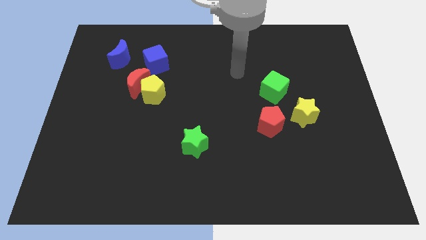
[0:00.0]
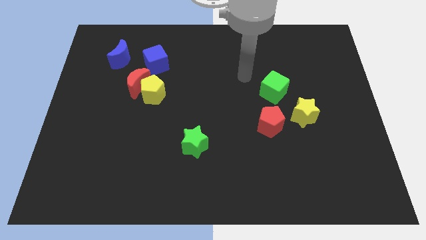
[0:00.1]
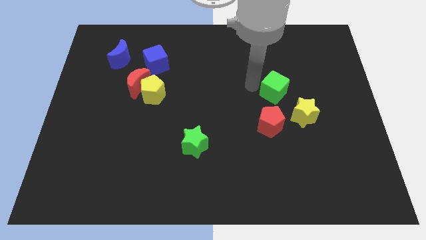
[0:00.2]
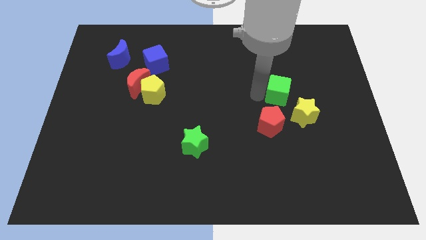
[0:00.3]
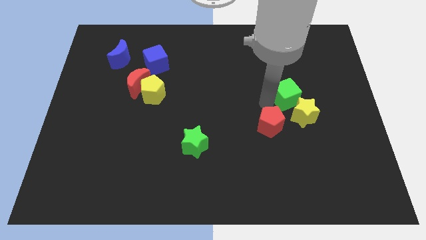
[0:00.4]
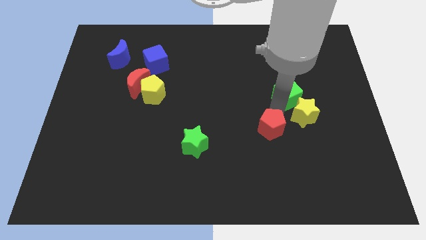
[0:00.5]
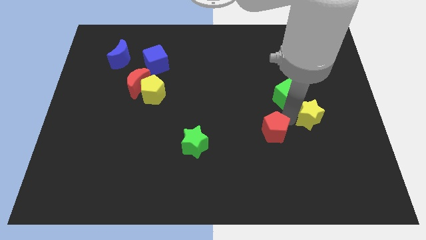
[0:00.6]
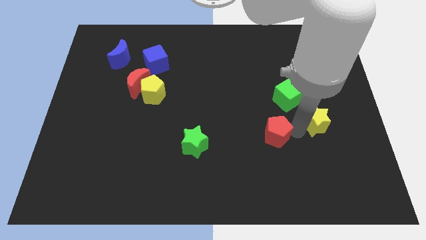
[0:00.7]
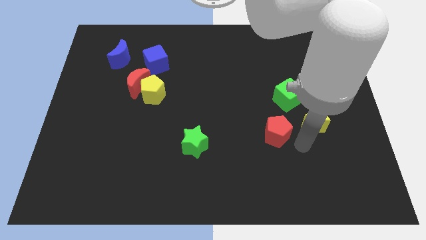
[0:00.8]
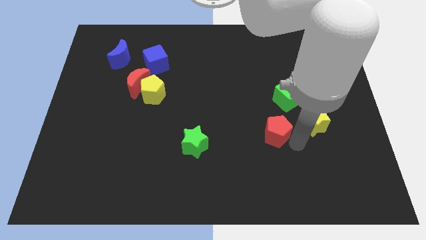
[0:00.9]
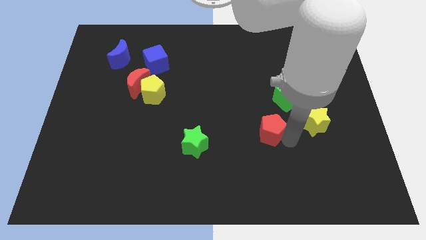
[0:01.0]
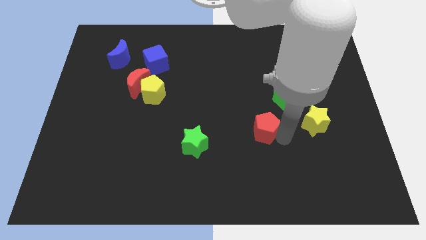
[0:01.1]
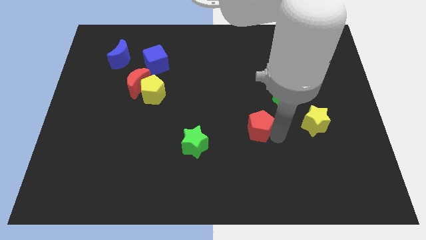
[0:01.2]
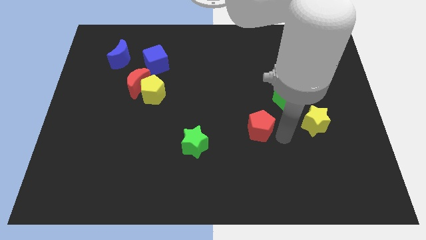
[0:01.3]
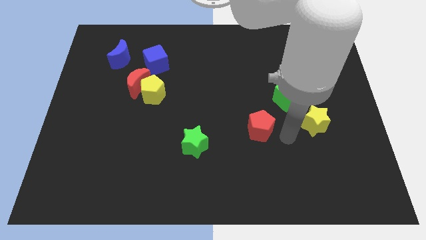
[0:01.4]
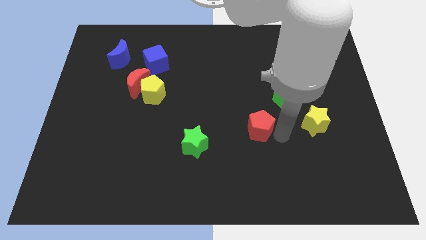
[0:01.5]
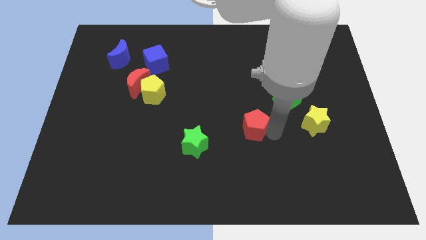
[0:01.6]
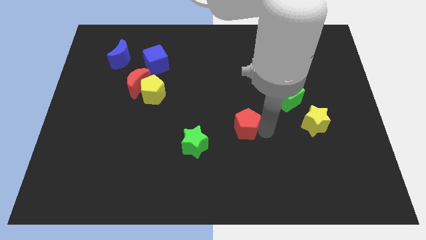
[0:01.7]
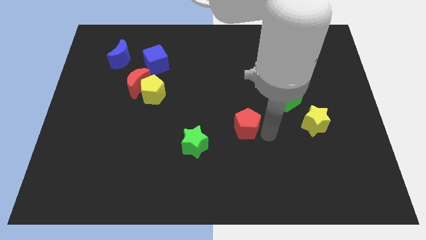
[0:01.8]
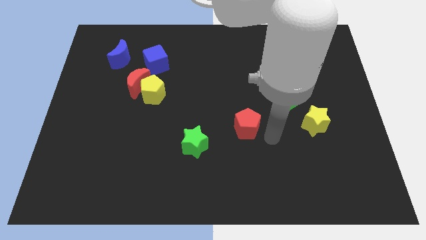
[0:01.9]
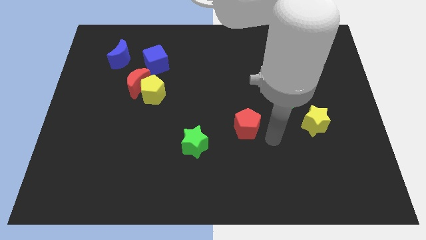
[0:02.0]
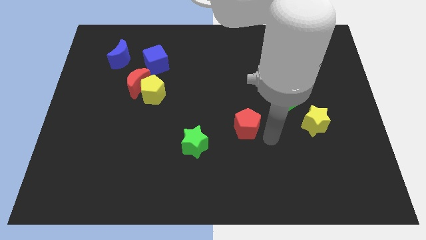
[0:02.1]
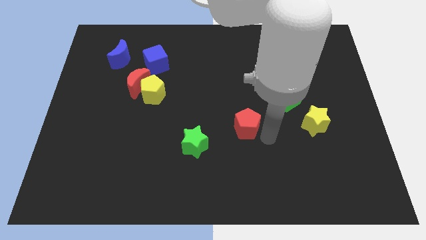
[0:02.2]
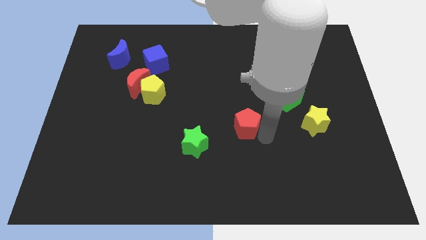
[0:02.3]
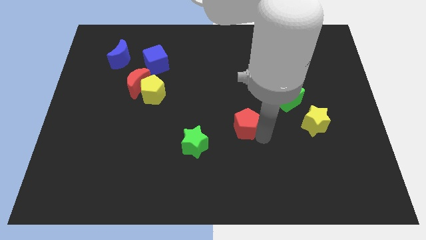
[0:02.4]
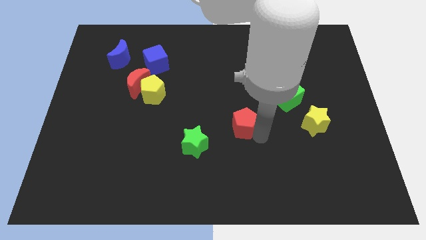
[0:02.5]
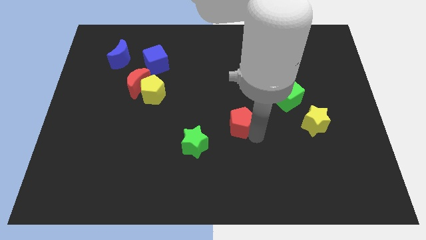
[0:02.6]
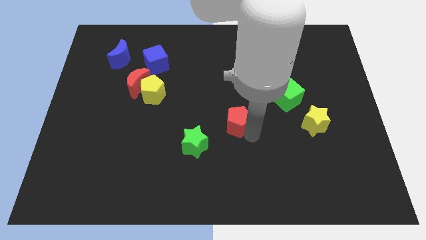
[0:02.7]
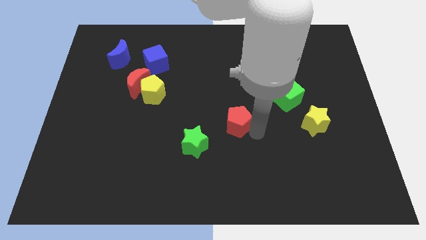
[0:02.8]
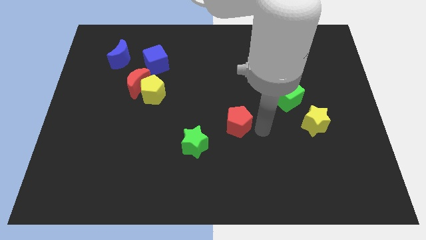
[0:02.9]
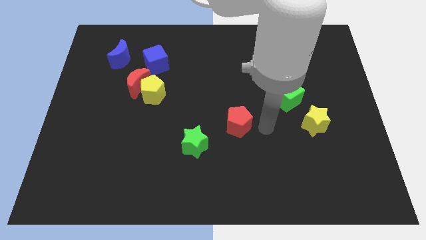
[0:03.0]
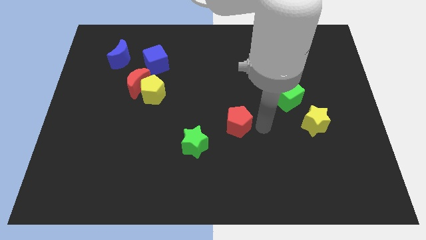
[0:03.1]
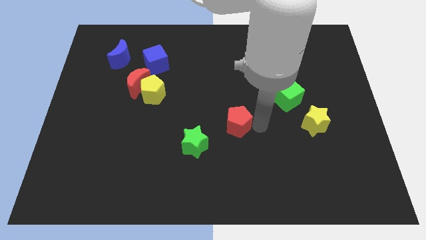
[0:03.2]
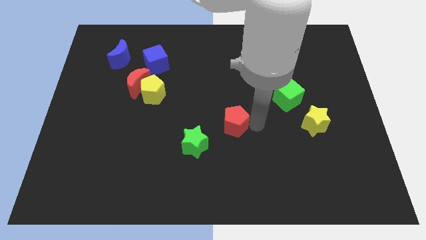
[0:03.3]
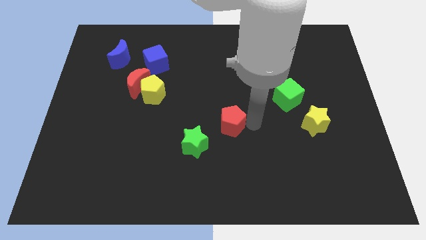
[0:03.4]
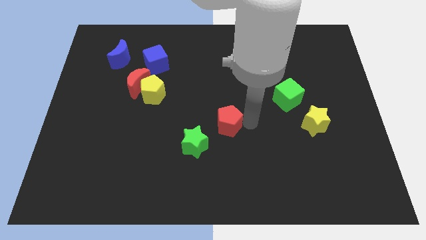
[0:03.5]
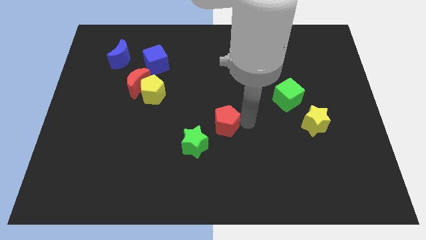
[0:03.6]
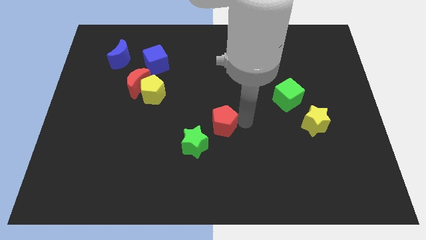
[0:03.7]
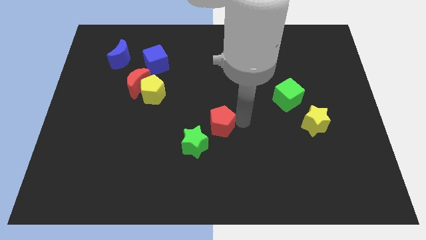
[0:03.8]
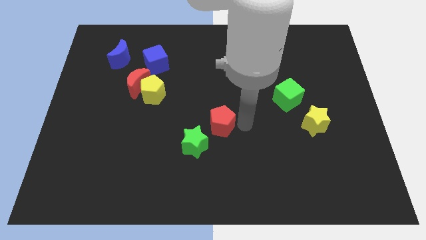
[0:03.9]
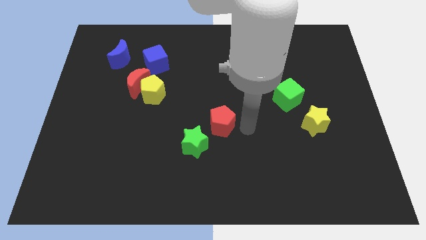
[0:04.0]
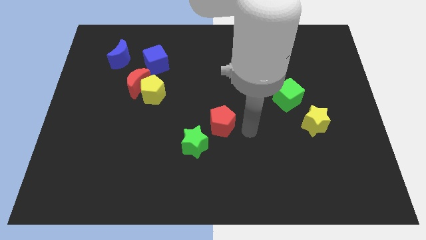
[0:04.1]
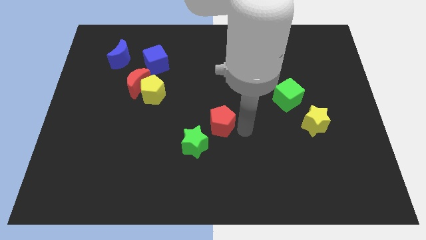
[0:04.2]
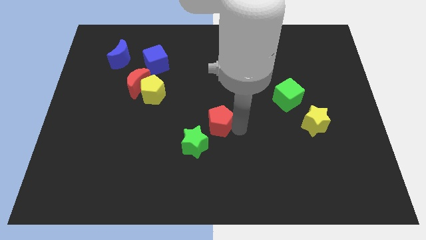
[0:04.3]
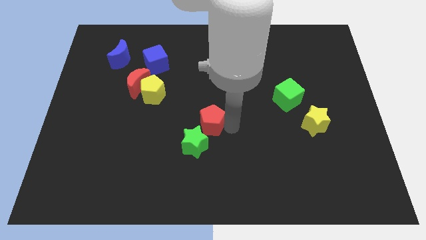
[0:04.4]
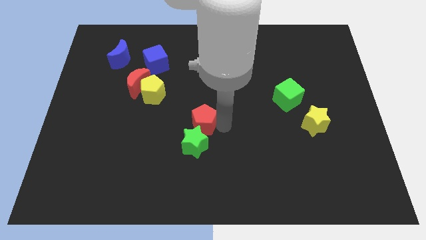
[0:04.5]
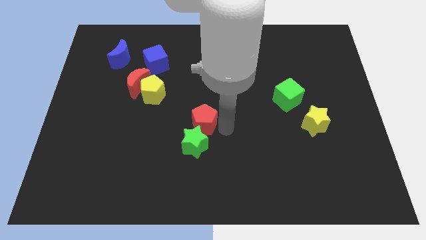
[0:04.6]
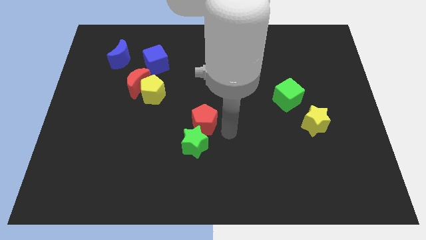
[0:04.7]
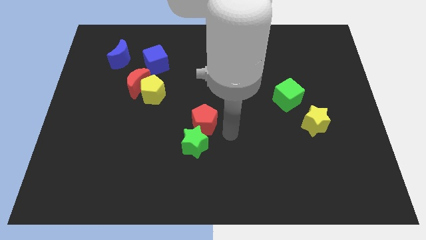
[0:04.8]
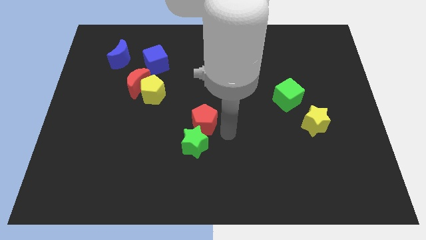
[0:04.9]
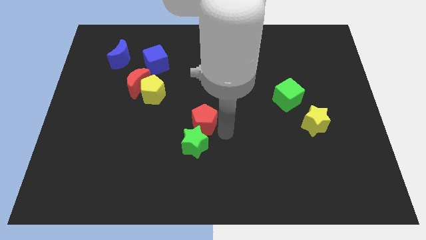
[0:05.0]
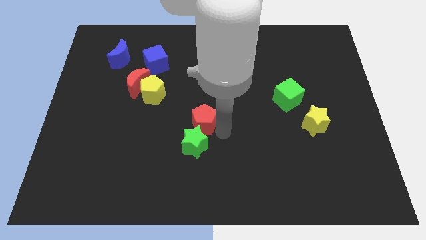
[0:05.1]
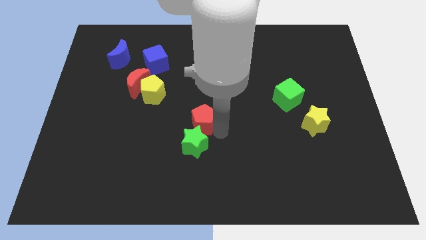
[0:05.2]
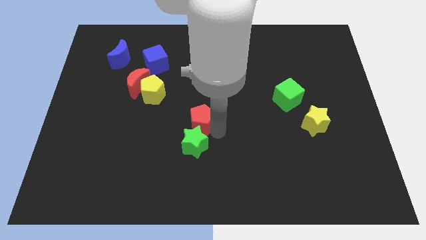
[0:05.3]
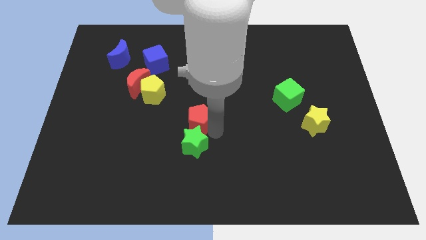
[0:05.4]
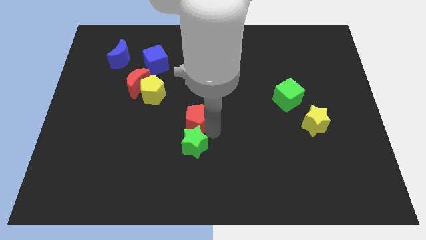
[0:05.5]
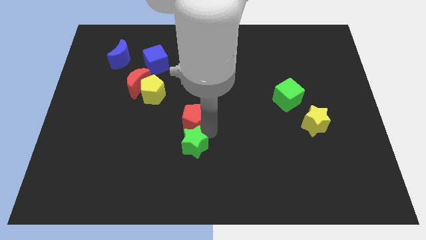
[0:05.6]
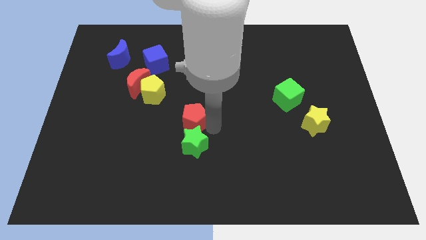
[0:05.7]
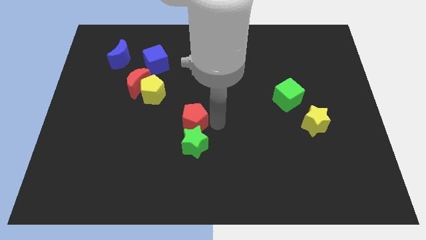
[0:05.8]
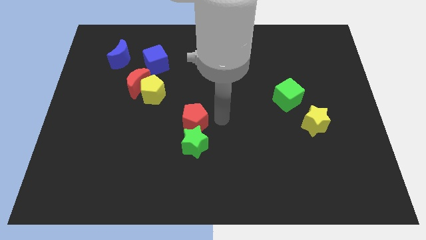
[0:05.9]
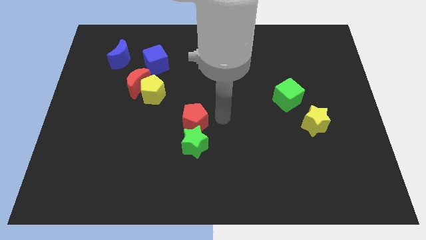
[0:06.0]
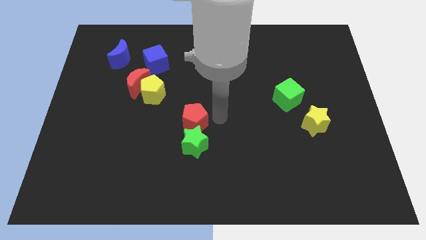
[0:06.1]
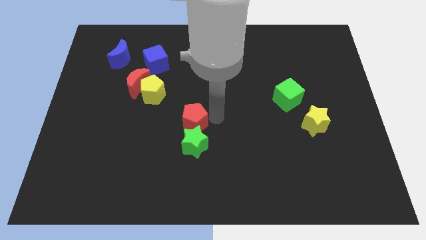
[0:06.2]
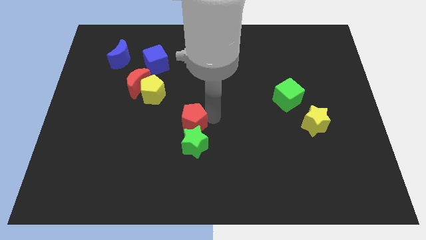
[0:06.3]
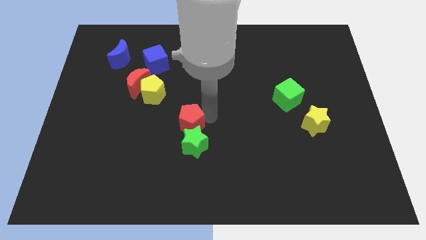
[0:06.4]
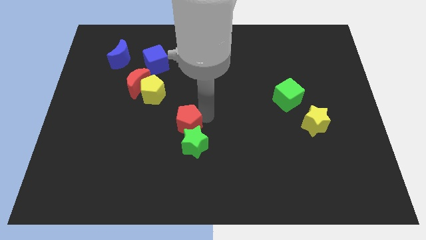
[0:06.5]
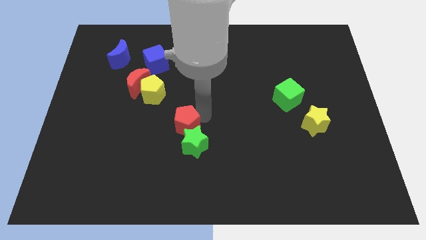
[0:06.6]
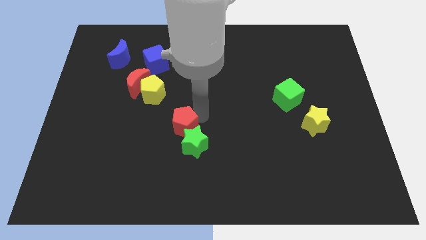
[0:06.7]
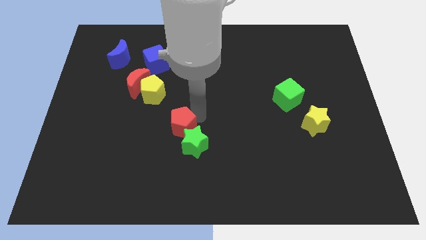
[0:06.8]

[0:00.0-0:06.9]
slide the red pentagon to the left

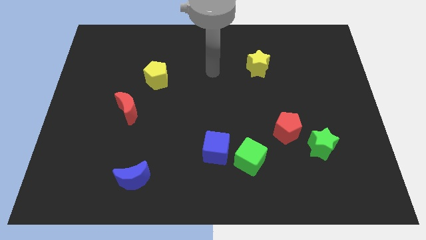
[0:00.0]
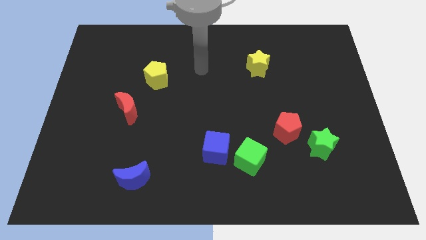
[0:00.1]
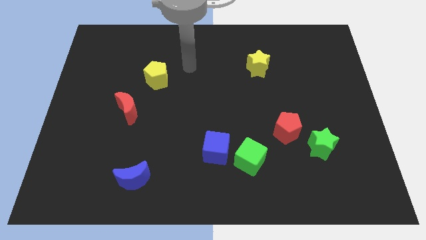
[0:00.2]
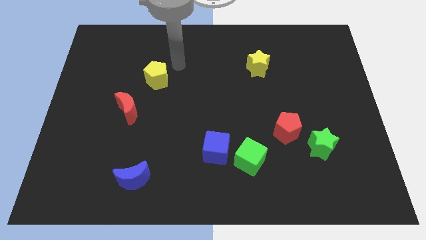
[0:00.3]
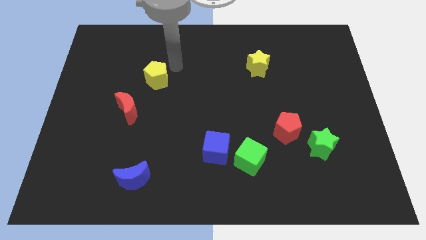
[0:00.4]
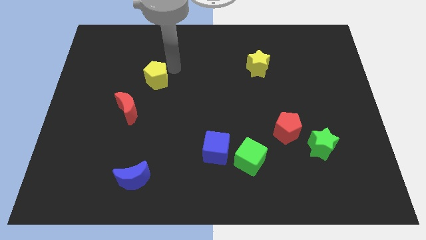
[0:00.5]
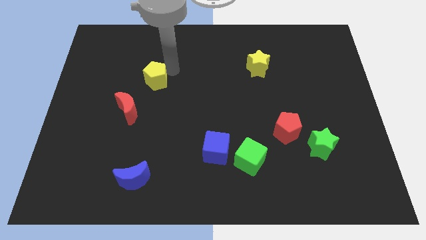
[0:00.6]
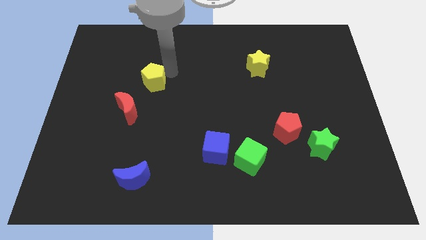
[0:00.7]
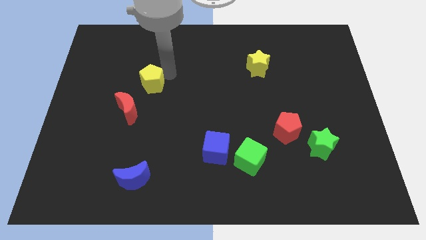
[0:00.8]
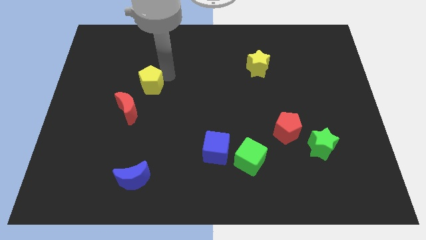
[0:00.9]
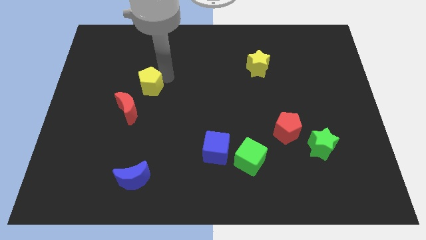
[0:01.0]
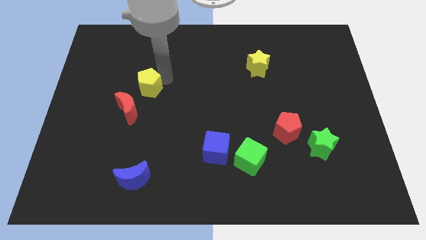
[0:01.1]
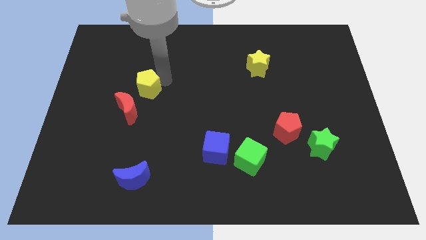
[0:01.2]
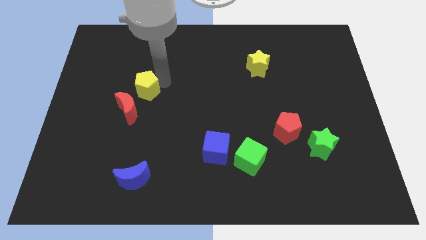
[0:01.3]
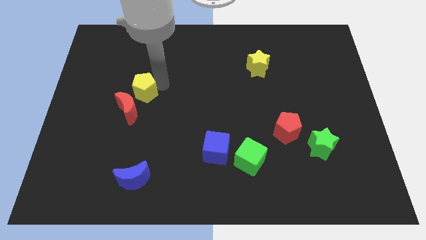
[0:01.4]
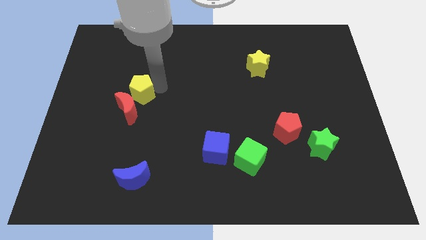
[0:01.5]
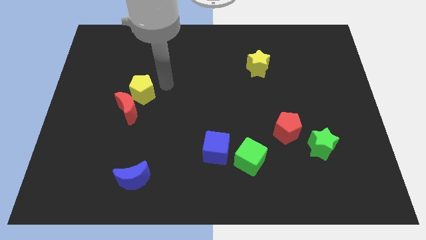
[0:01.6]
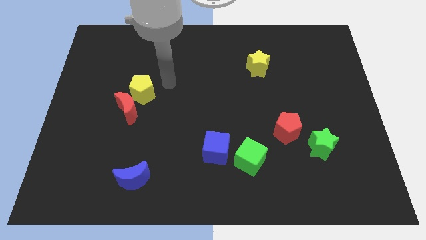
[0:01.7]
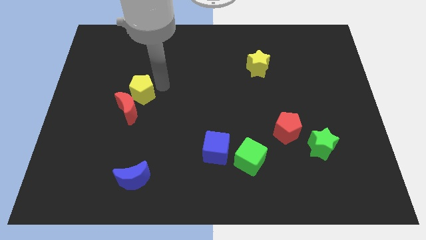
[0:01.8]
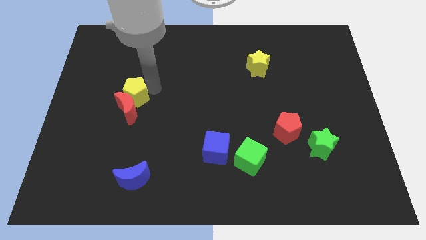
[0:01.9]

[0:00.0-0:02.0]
move the yellow pentagon down and to the left diagonally a bit
